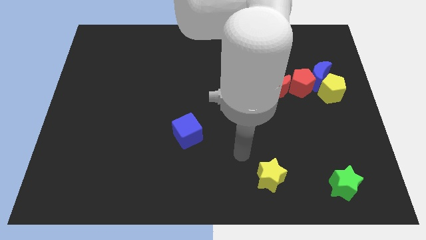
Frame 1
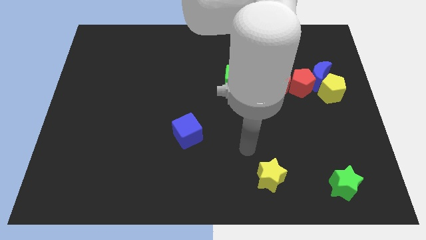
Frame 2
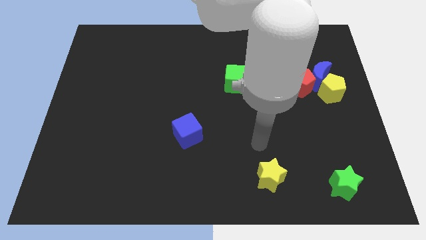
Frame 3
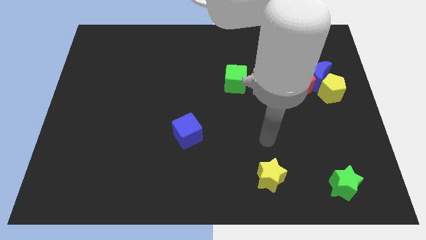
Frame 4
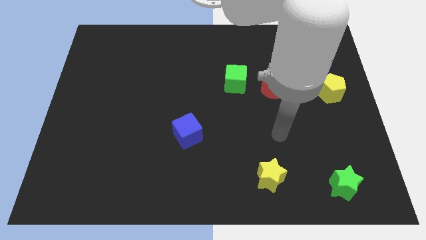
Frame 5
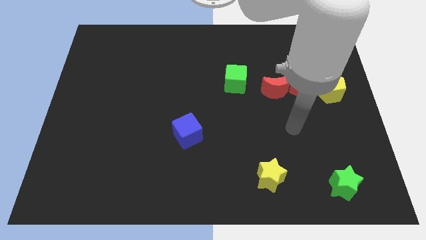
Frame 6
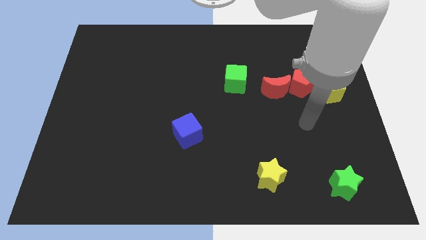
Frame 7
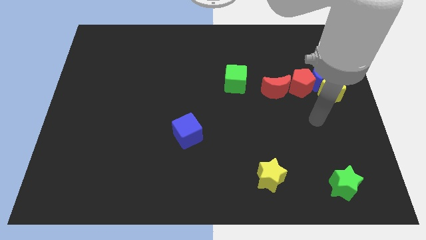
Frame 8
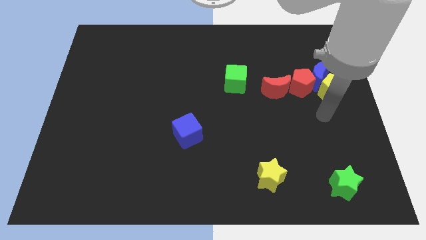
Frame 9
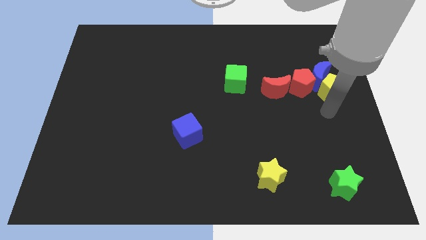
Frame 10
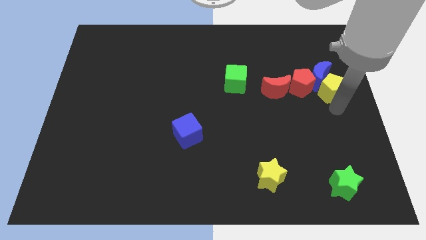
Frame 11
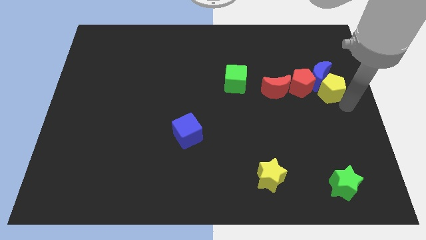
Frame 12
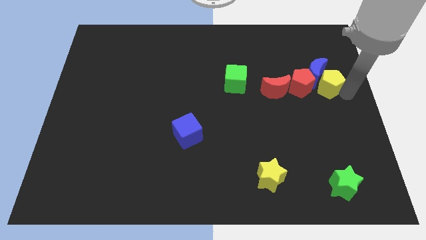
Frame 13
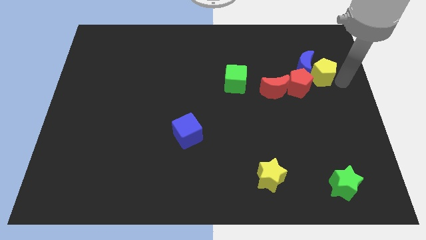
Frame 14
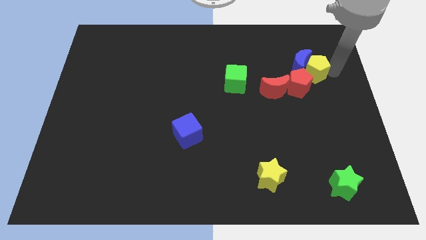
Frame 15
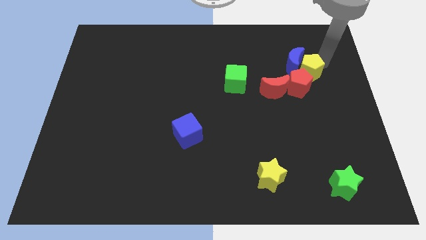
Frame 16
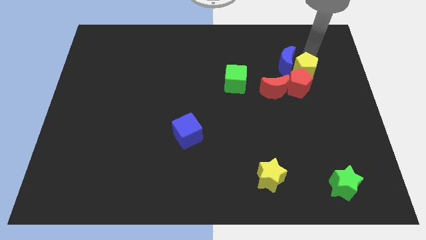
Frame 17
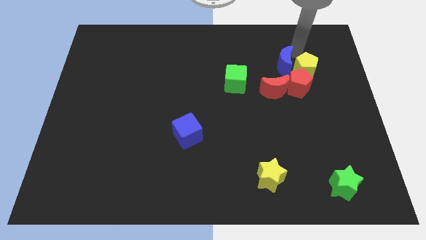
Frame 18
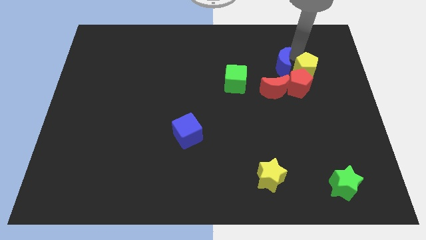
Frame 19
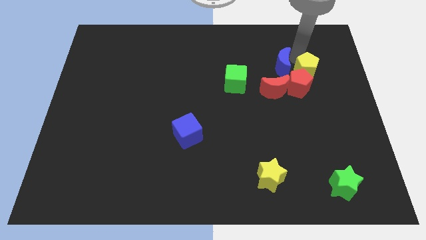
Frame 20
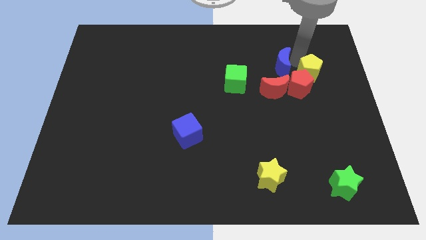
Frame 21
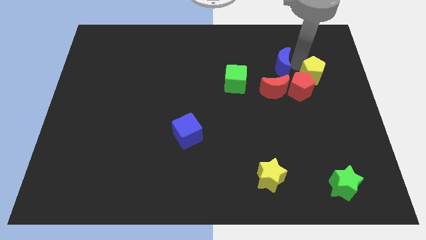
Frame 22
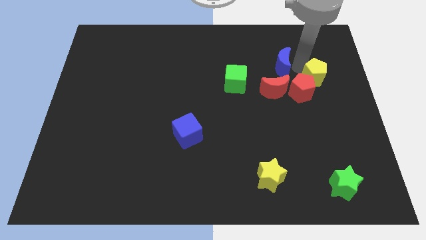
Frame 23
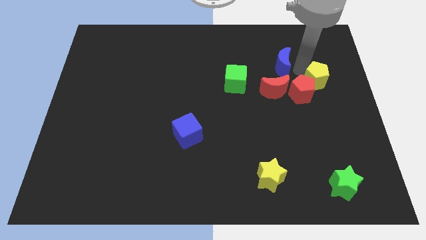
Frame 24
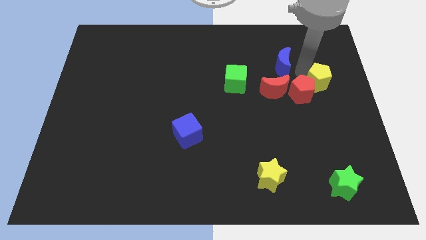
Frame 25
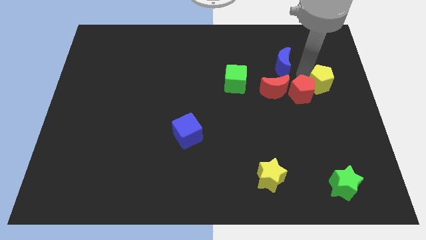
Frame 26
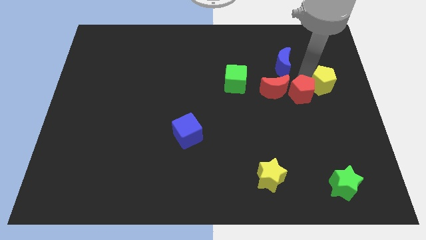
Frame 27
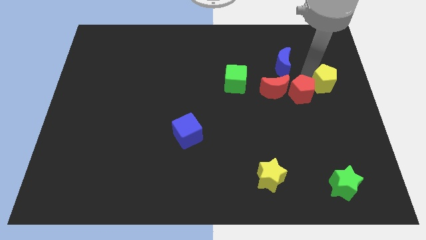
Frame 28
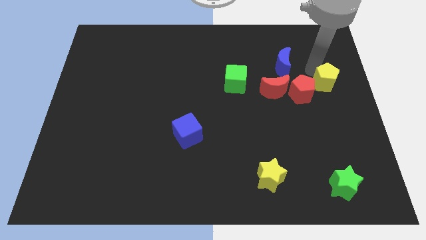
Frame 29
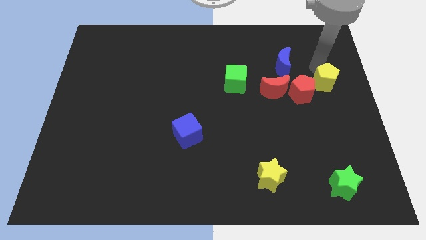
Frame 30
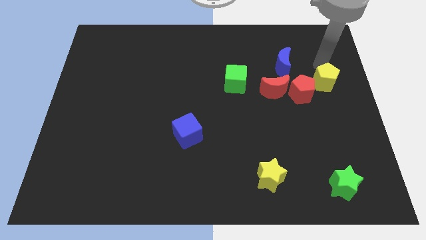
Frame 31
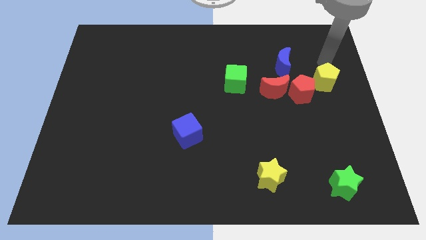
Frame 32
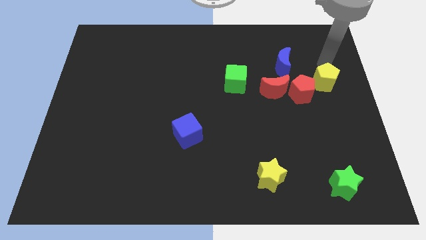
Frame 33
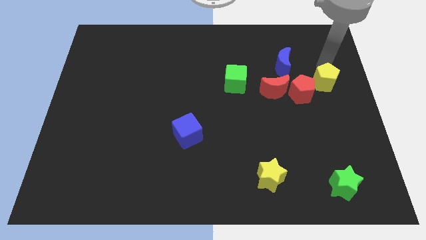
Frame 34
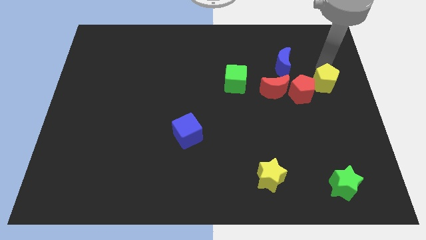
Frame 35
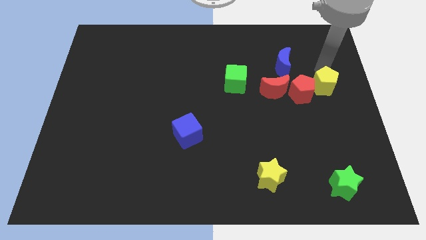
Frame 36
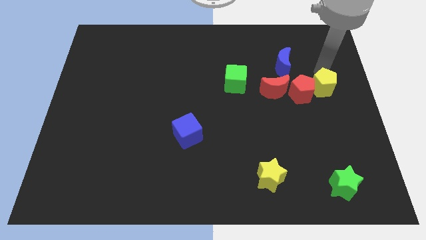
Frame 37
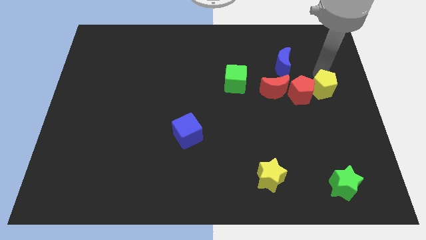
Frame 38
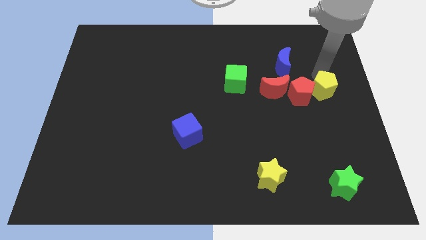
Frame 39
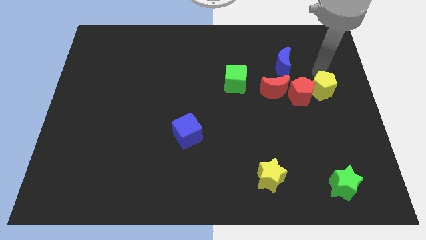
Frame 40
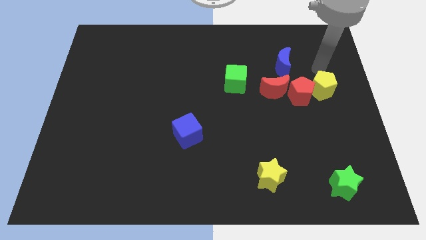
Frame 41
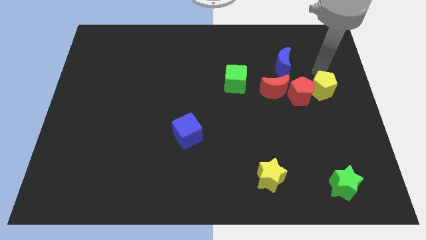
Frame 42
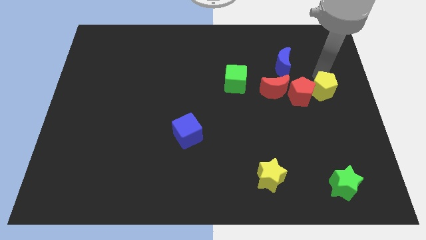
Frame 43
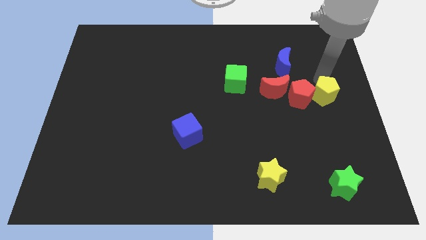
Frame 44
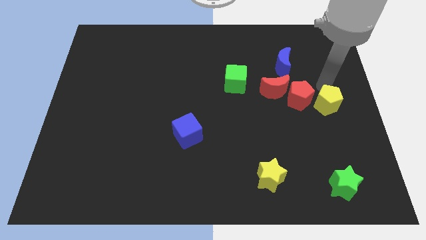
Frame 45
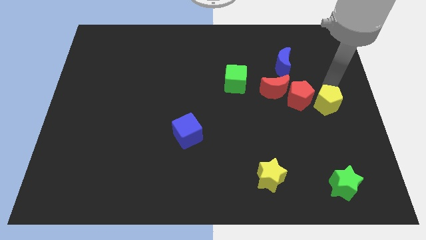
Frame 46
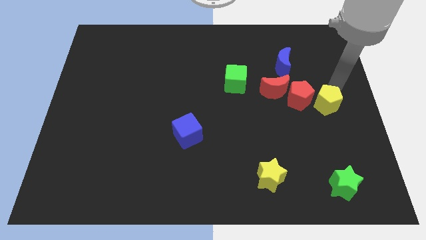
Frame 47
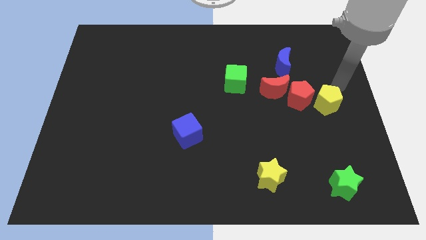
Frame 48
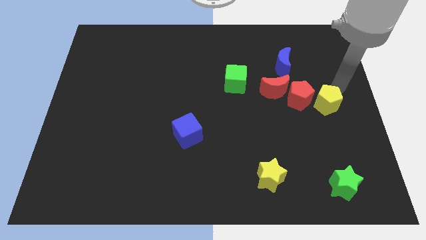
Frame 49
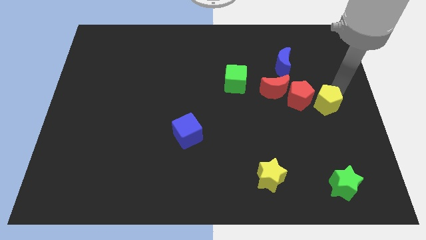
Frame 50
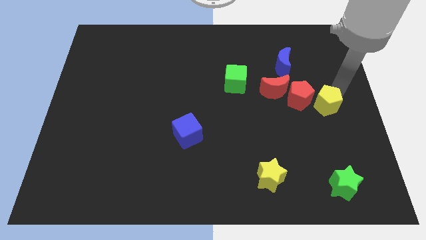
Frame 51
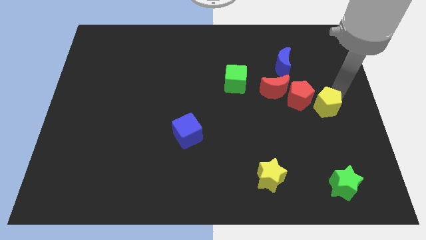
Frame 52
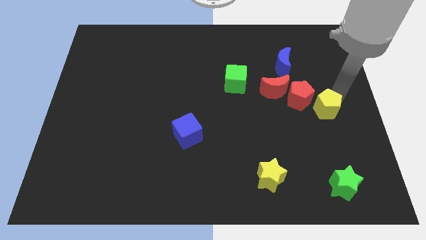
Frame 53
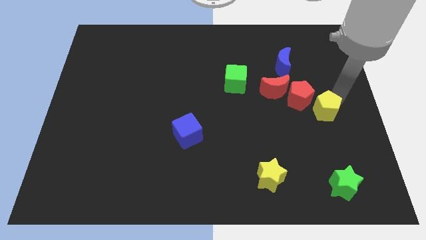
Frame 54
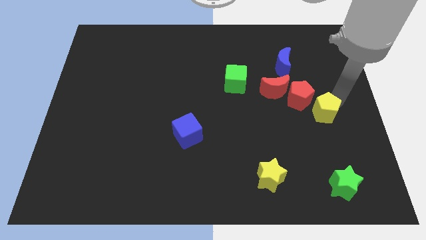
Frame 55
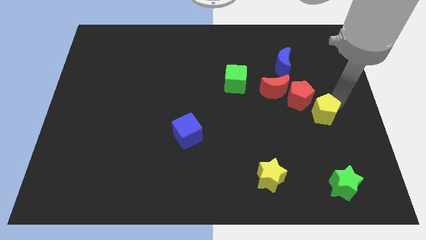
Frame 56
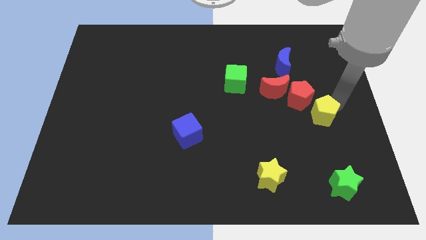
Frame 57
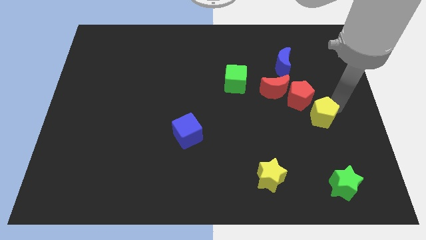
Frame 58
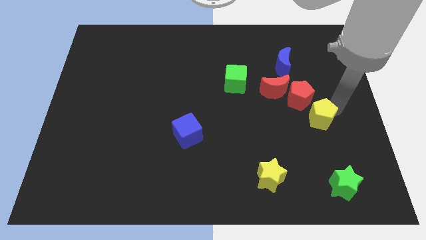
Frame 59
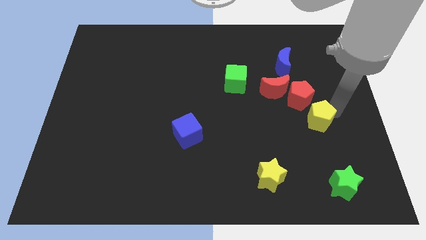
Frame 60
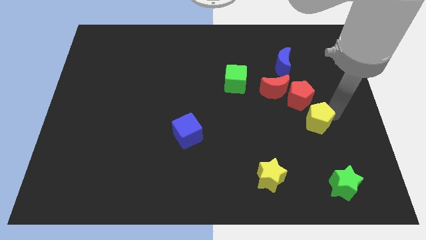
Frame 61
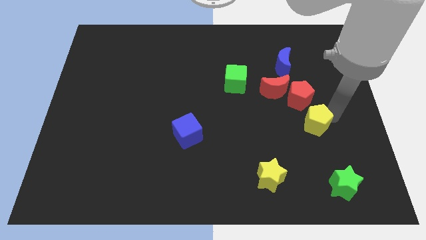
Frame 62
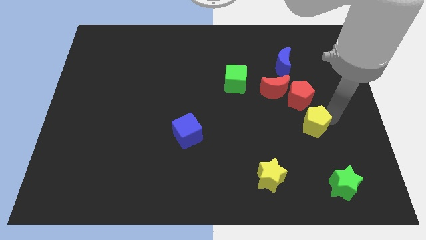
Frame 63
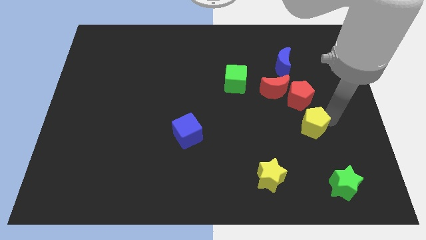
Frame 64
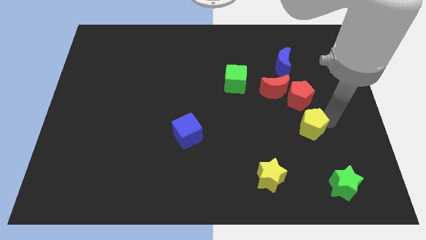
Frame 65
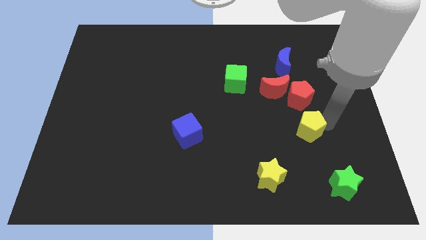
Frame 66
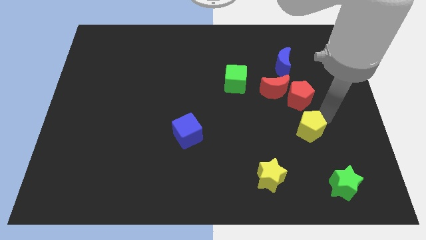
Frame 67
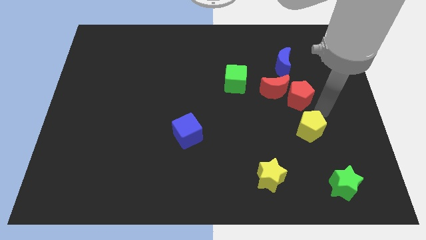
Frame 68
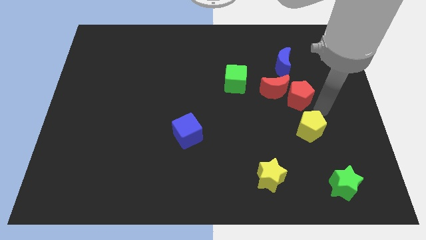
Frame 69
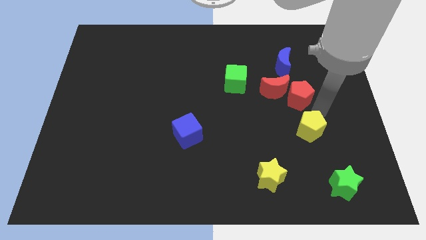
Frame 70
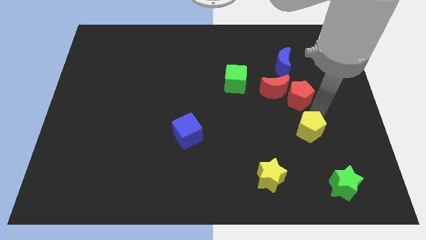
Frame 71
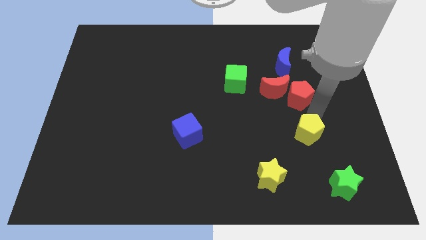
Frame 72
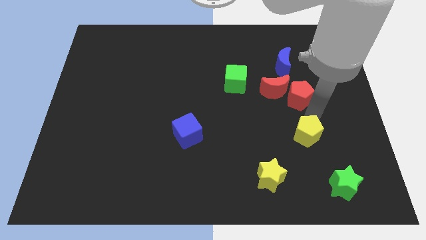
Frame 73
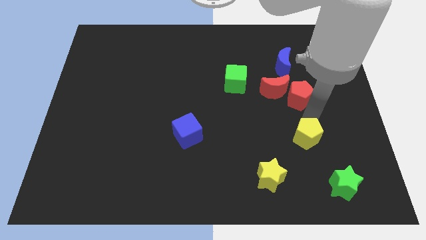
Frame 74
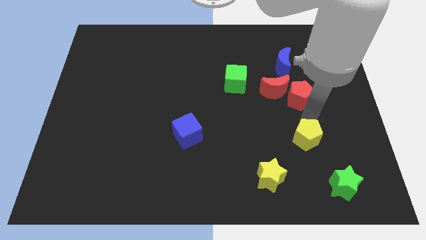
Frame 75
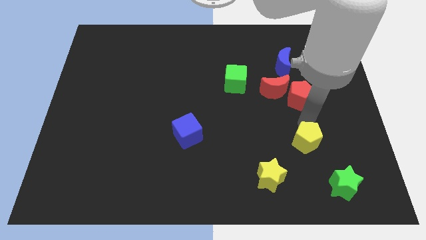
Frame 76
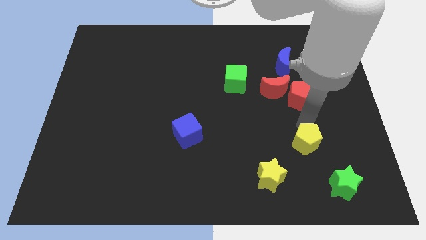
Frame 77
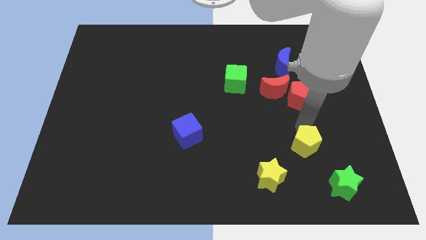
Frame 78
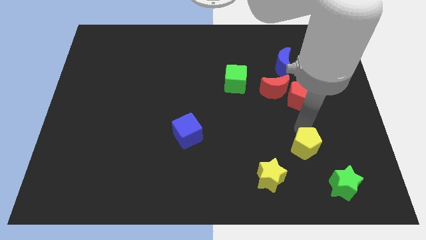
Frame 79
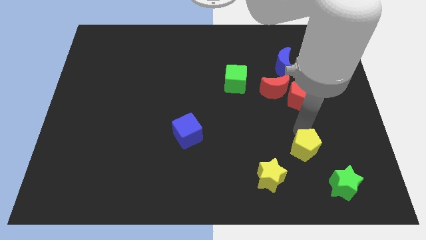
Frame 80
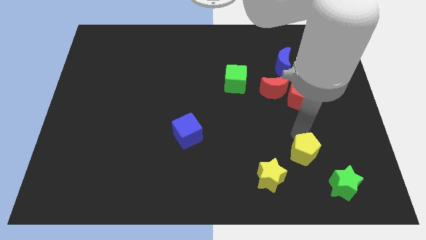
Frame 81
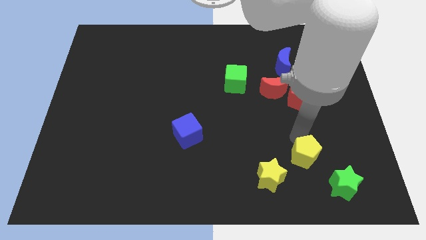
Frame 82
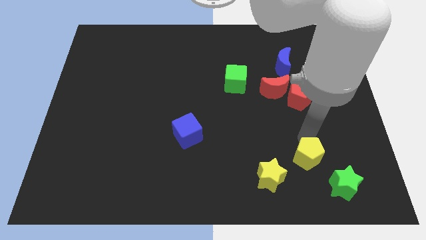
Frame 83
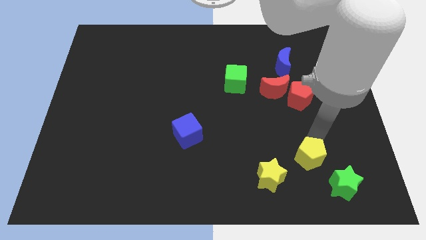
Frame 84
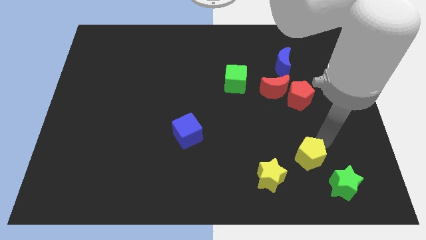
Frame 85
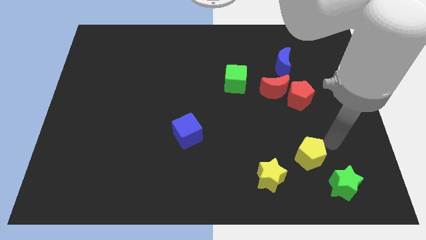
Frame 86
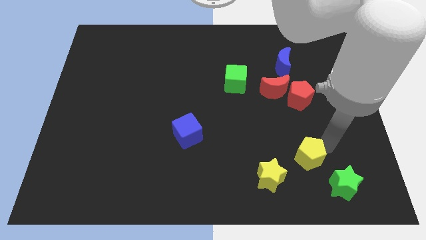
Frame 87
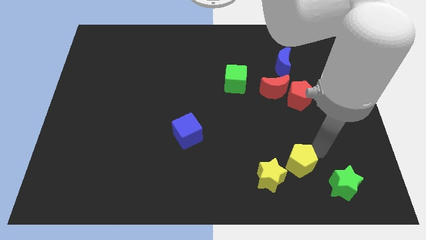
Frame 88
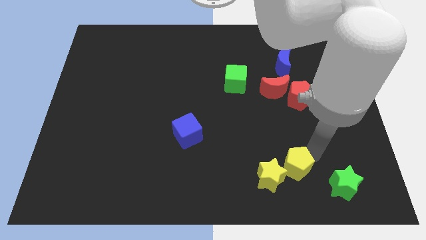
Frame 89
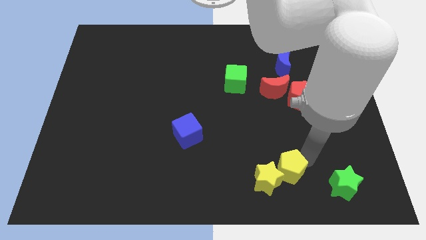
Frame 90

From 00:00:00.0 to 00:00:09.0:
push the yellow pentagon next to the yellow star
